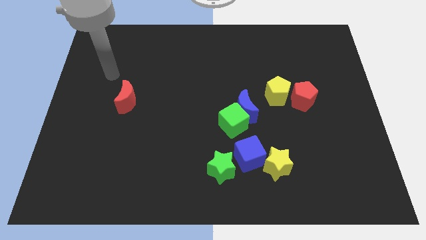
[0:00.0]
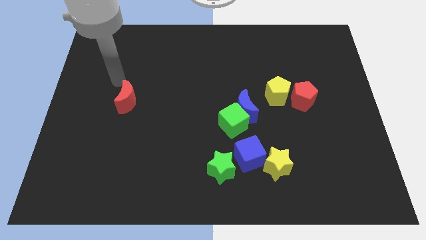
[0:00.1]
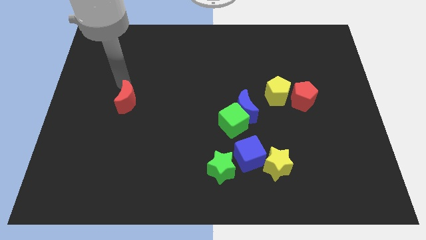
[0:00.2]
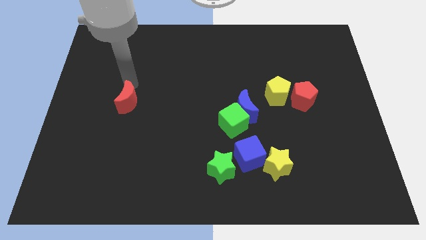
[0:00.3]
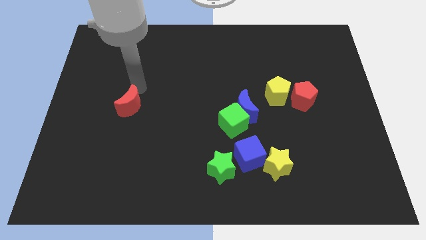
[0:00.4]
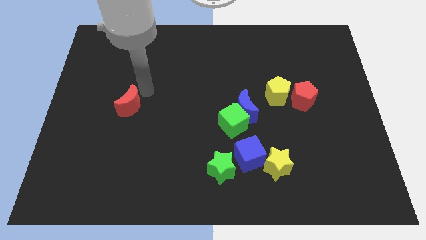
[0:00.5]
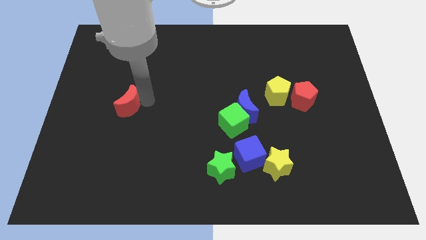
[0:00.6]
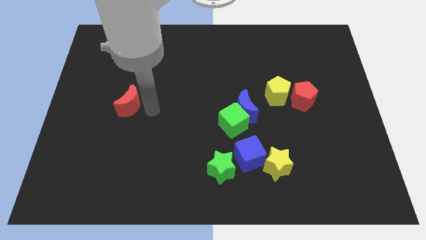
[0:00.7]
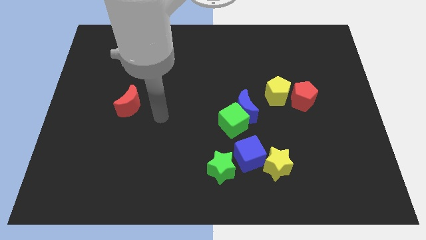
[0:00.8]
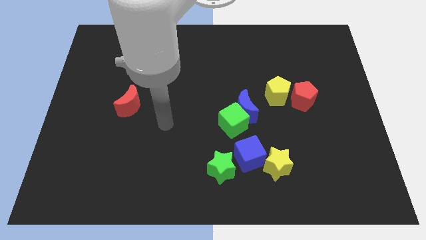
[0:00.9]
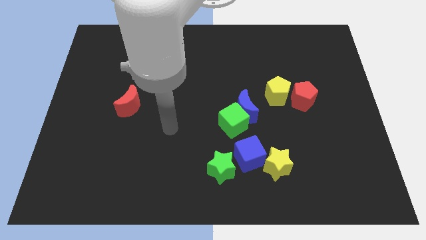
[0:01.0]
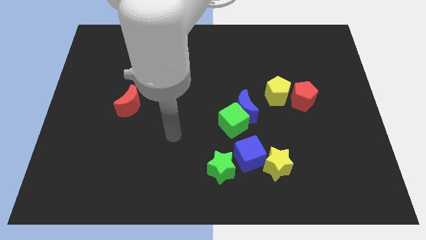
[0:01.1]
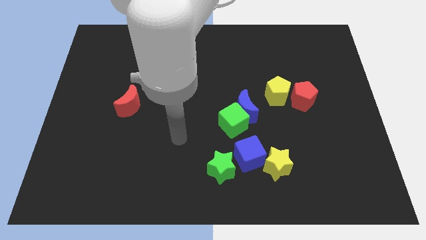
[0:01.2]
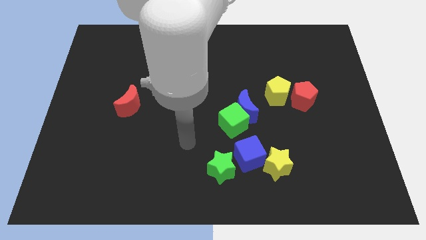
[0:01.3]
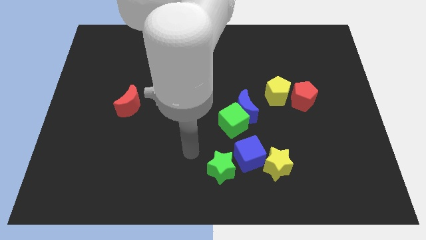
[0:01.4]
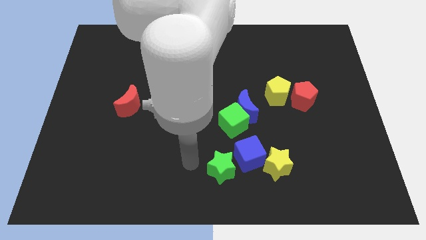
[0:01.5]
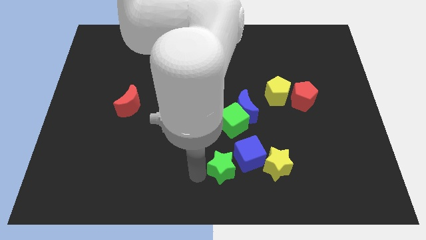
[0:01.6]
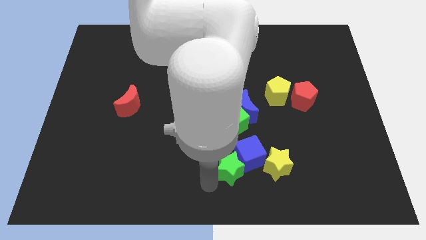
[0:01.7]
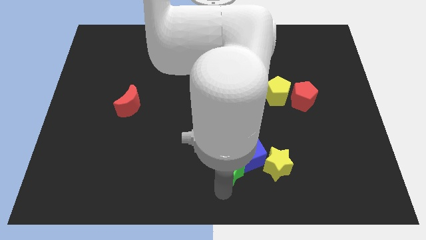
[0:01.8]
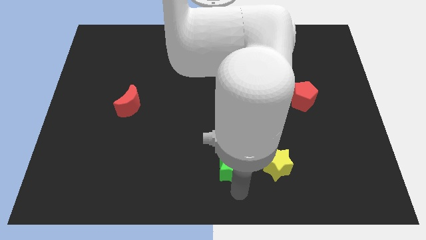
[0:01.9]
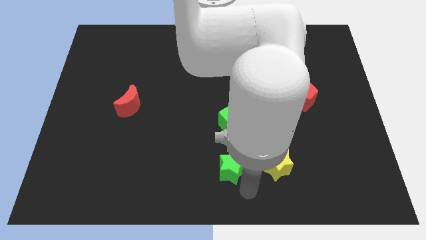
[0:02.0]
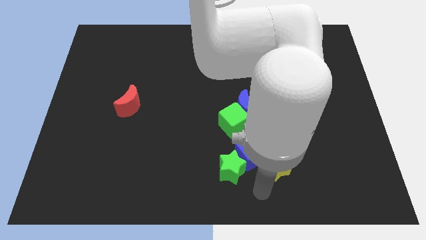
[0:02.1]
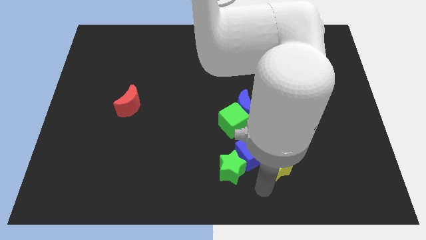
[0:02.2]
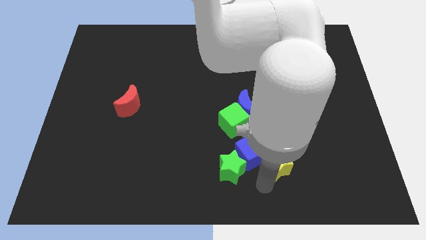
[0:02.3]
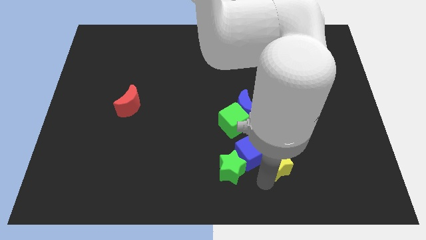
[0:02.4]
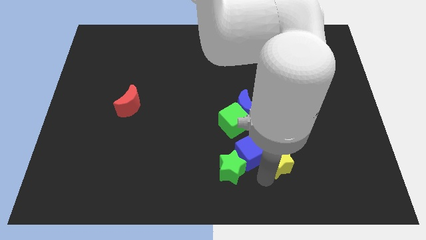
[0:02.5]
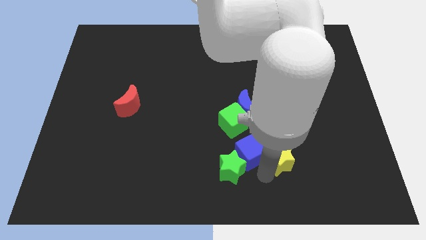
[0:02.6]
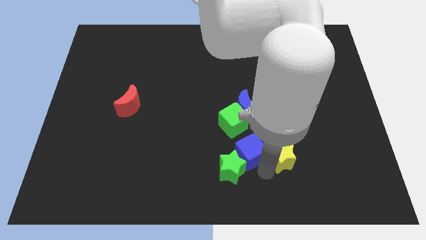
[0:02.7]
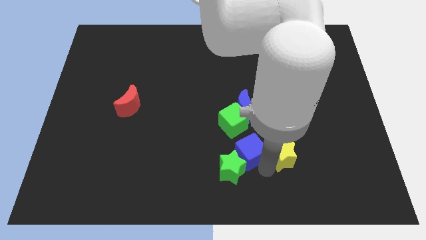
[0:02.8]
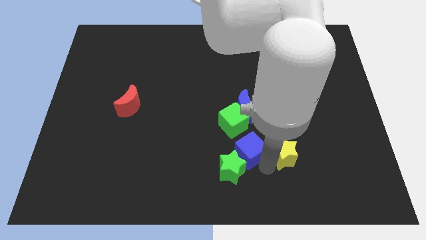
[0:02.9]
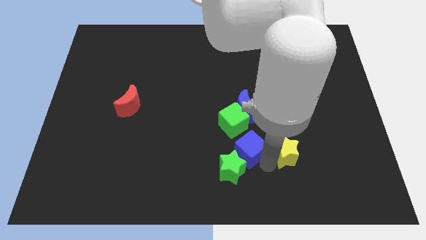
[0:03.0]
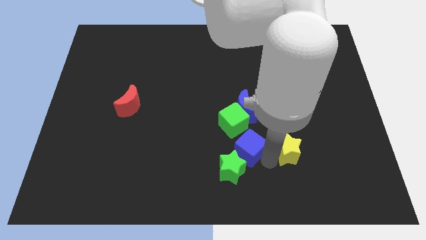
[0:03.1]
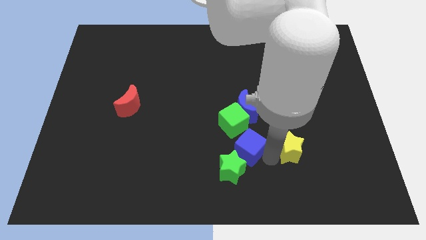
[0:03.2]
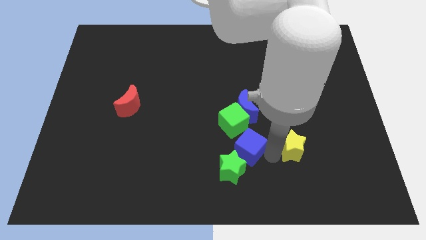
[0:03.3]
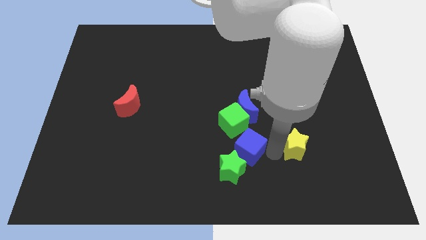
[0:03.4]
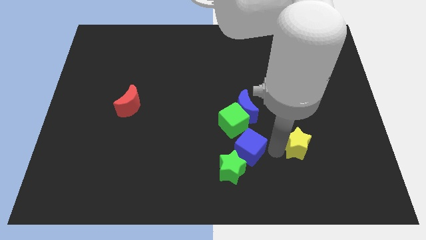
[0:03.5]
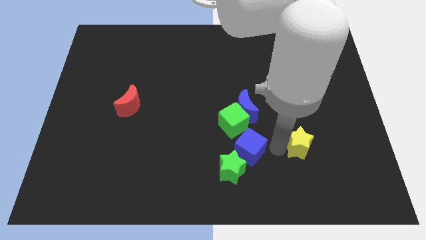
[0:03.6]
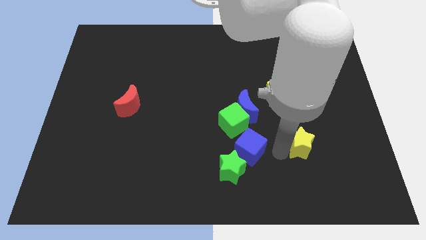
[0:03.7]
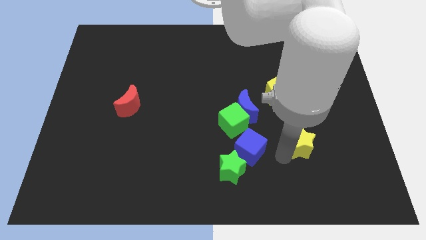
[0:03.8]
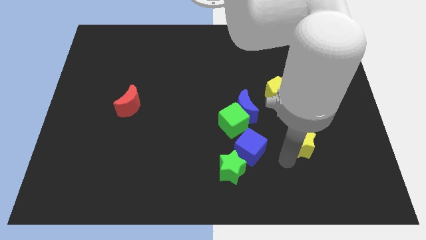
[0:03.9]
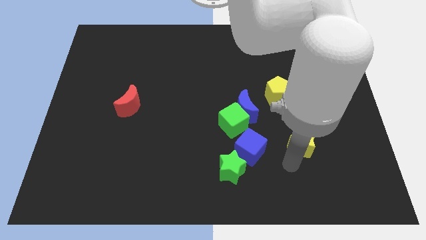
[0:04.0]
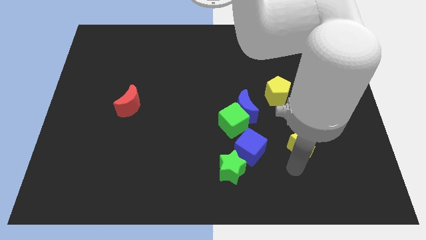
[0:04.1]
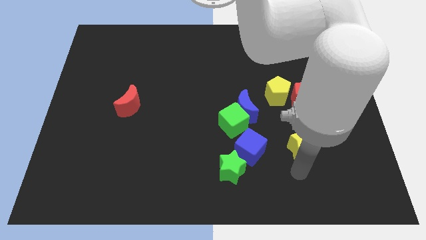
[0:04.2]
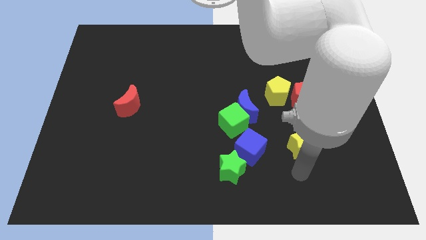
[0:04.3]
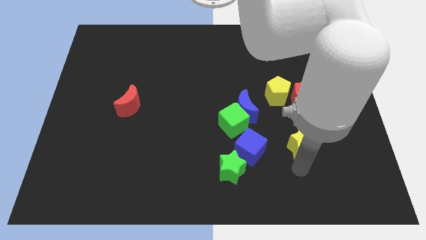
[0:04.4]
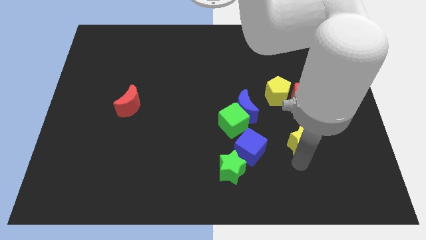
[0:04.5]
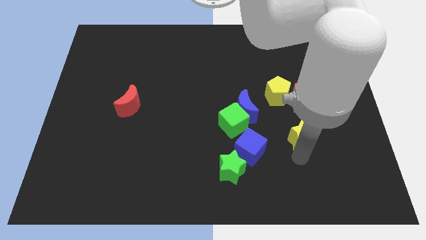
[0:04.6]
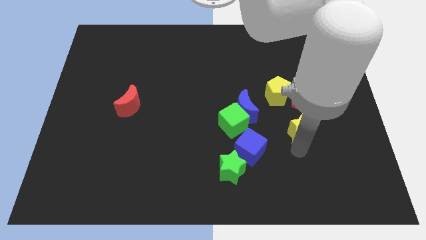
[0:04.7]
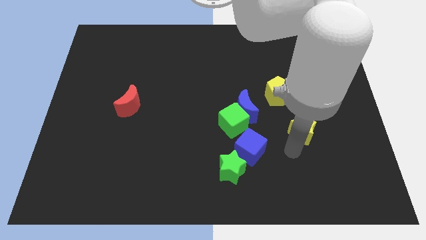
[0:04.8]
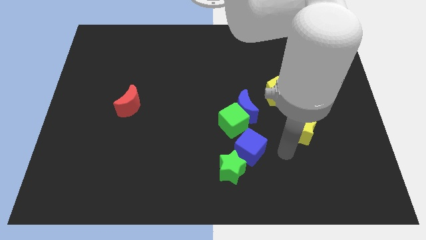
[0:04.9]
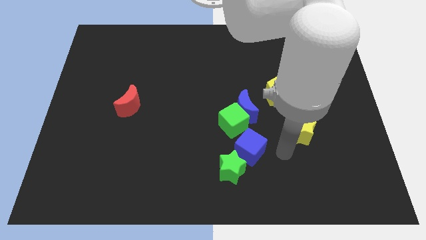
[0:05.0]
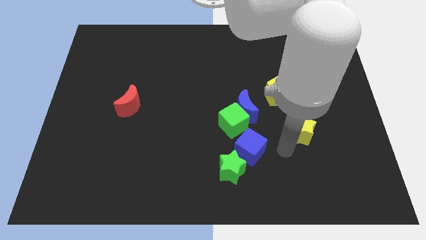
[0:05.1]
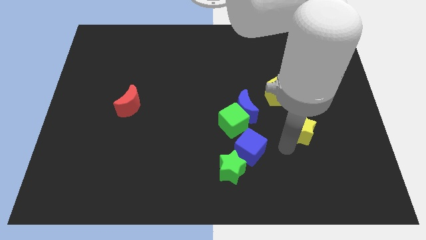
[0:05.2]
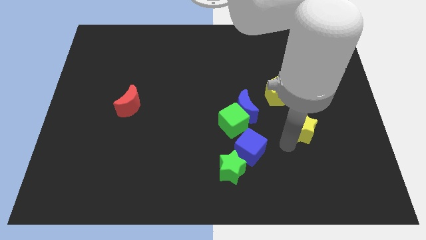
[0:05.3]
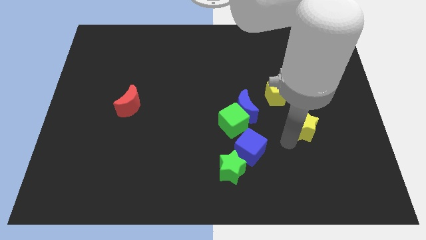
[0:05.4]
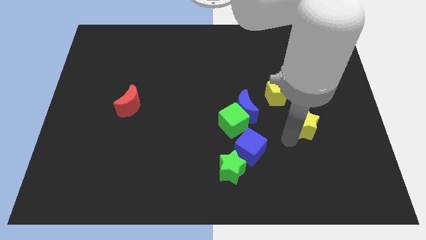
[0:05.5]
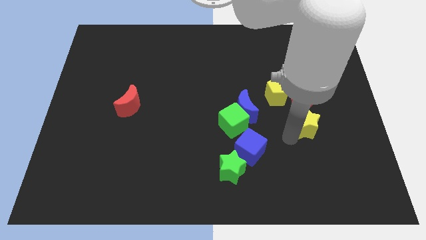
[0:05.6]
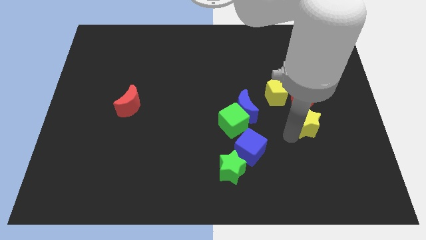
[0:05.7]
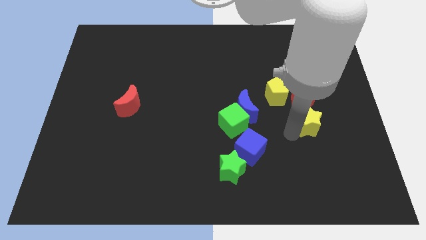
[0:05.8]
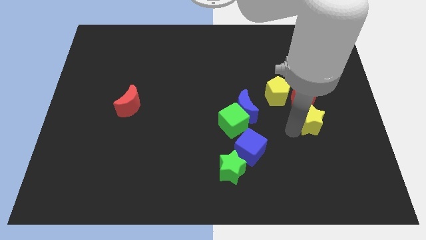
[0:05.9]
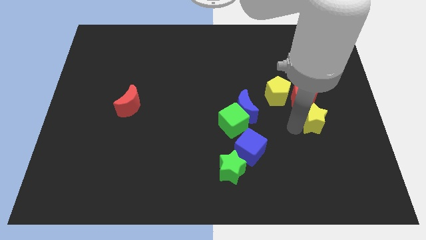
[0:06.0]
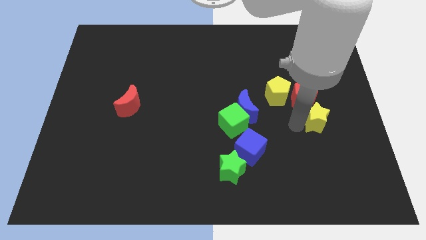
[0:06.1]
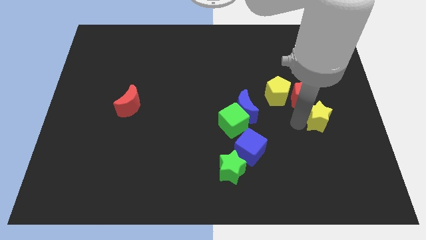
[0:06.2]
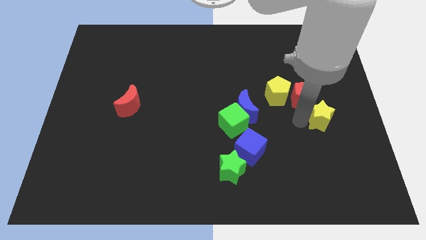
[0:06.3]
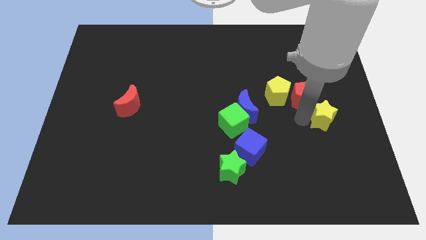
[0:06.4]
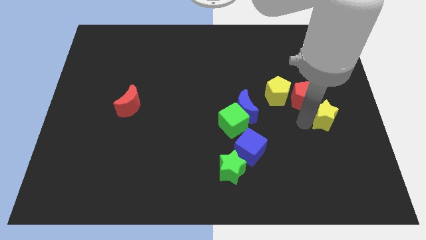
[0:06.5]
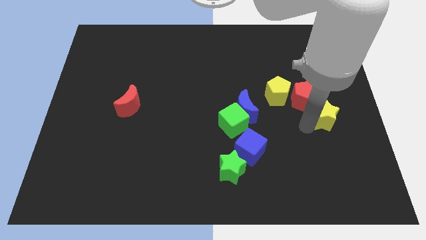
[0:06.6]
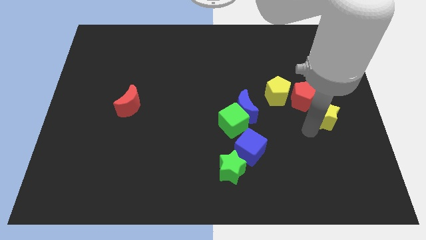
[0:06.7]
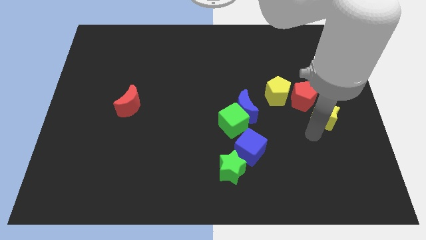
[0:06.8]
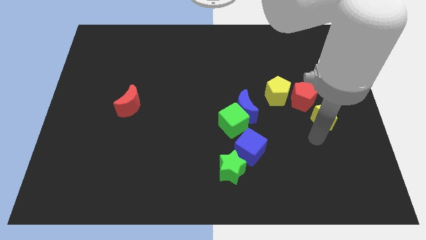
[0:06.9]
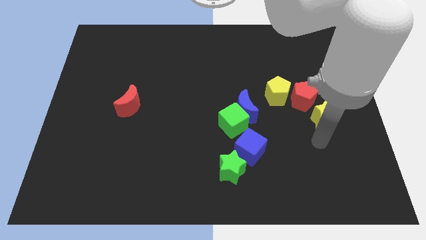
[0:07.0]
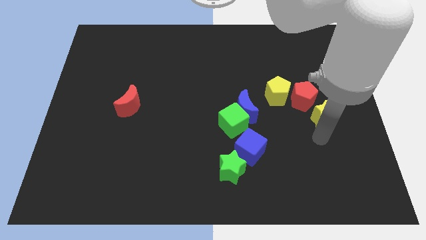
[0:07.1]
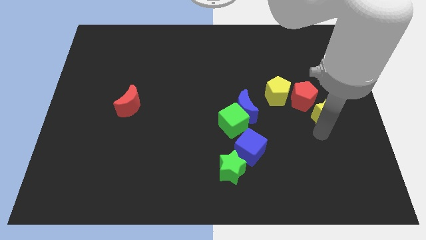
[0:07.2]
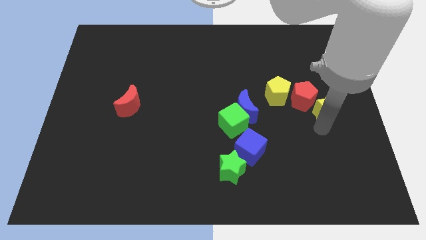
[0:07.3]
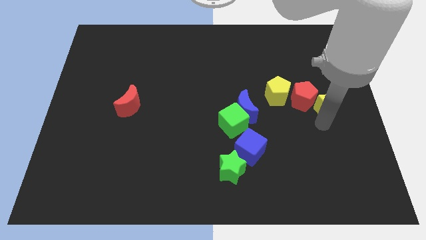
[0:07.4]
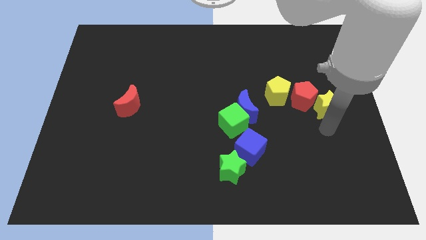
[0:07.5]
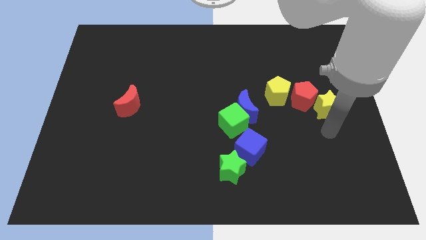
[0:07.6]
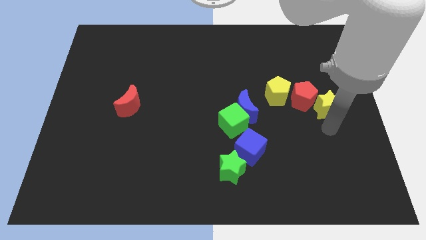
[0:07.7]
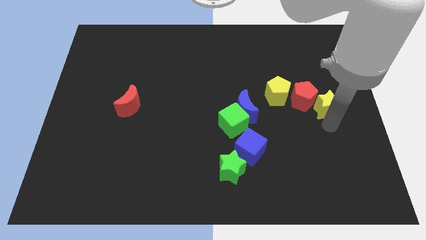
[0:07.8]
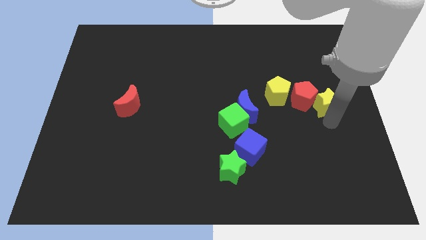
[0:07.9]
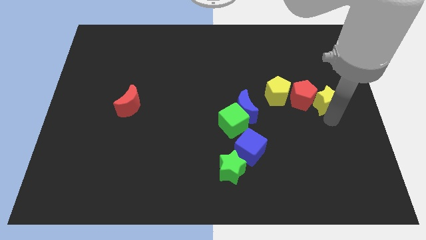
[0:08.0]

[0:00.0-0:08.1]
move the yellow star to the top right side of the red pentagon
